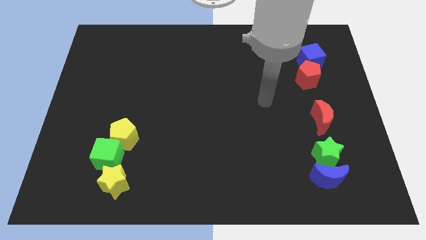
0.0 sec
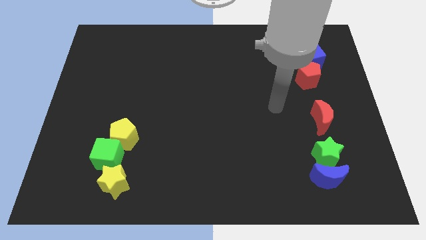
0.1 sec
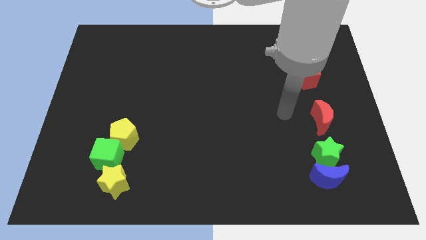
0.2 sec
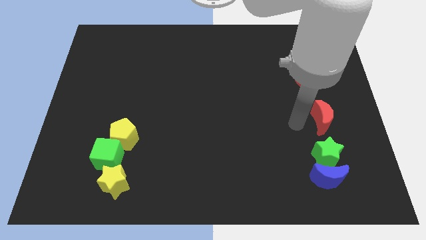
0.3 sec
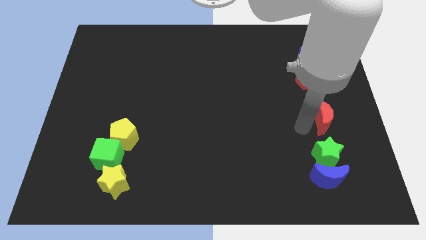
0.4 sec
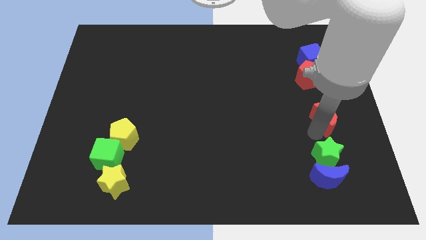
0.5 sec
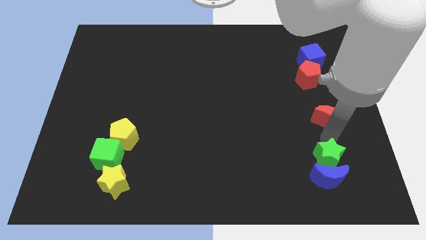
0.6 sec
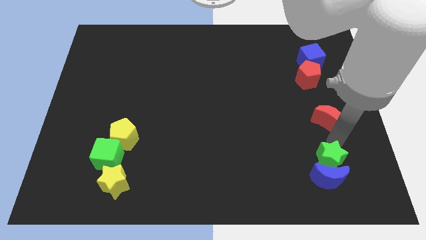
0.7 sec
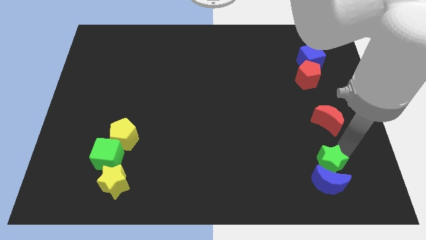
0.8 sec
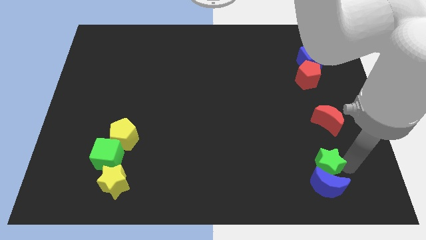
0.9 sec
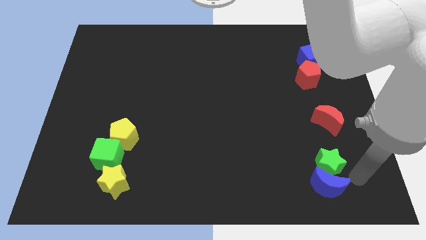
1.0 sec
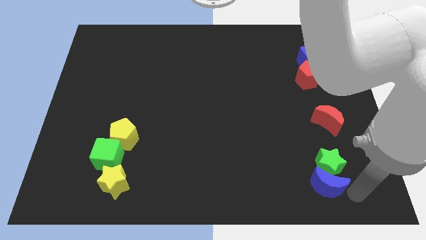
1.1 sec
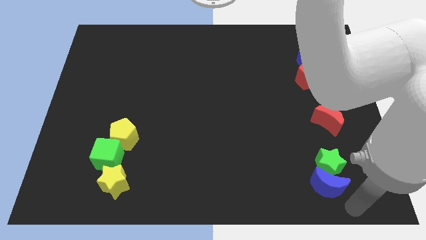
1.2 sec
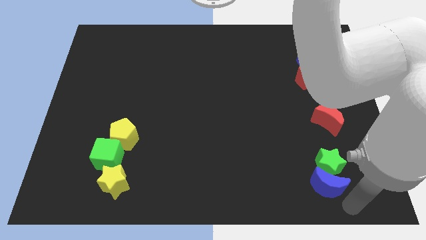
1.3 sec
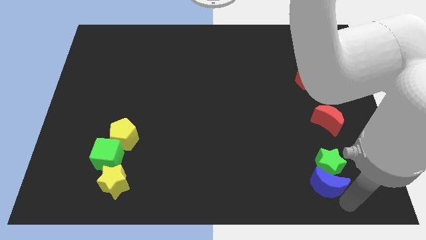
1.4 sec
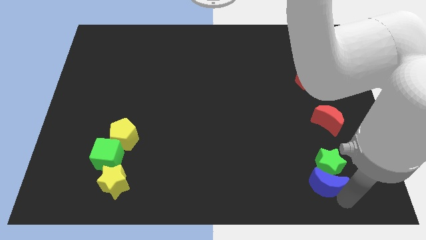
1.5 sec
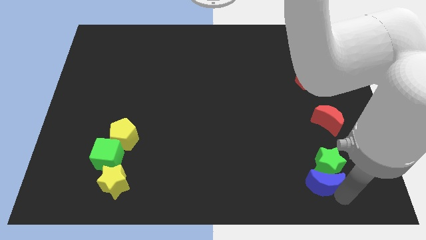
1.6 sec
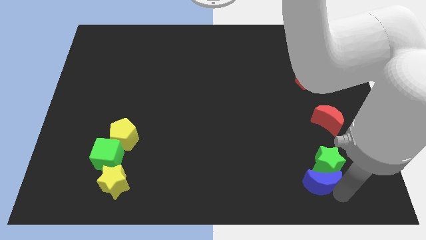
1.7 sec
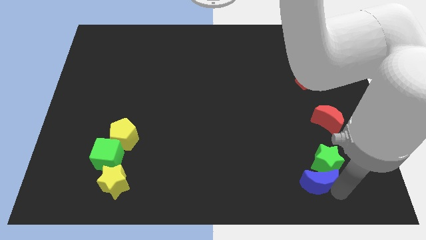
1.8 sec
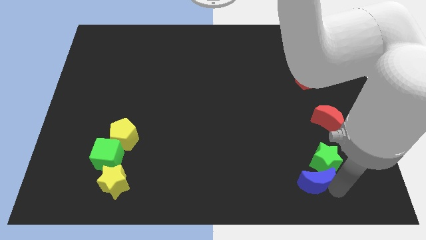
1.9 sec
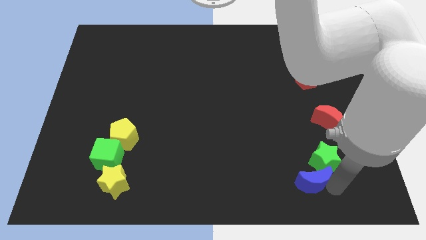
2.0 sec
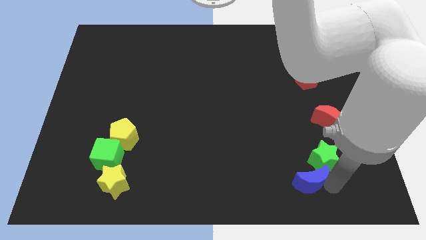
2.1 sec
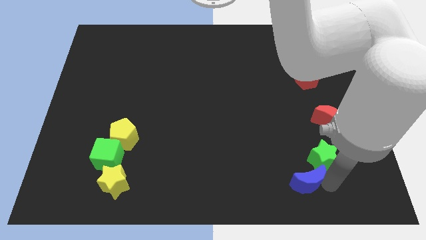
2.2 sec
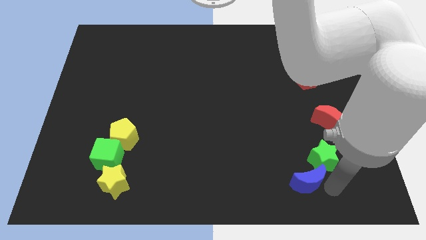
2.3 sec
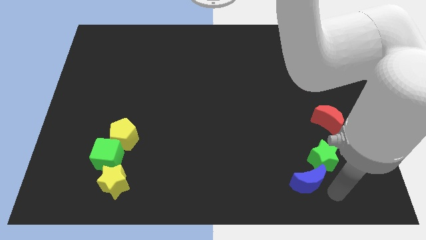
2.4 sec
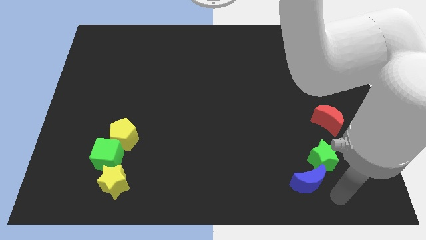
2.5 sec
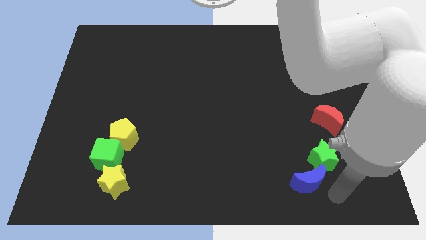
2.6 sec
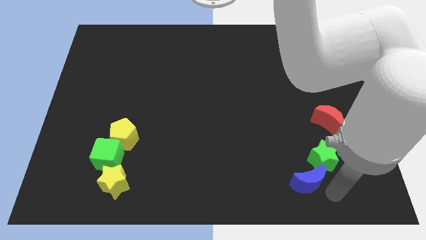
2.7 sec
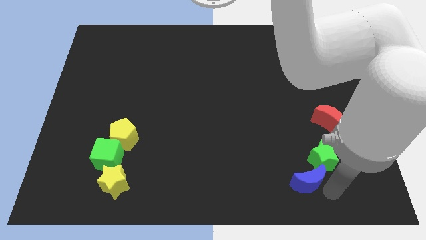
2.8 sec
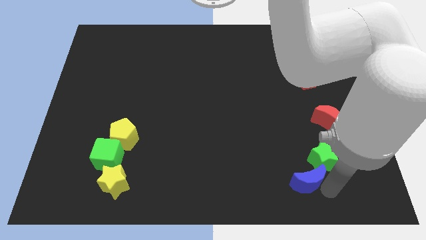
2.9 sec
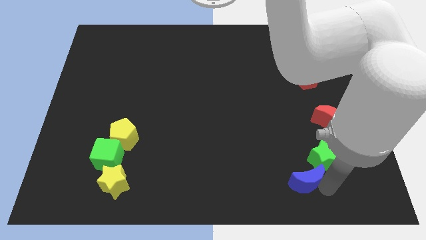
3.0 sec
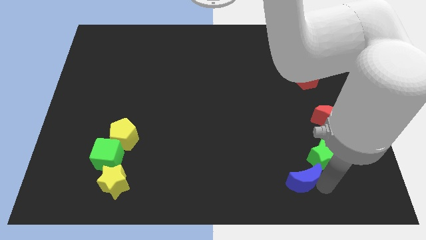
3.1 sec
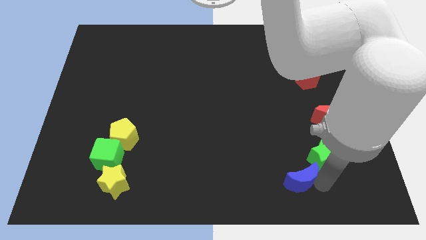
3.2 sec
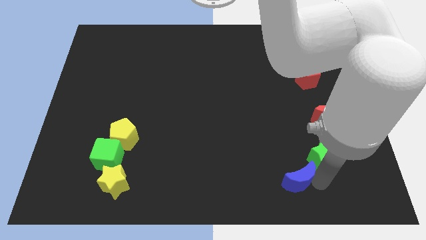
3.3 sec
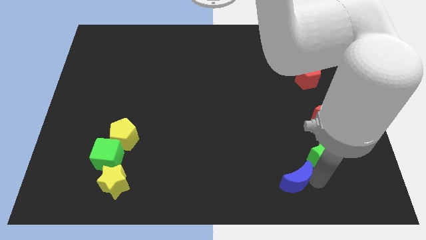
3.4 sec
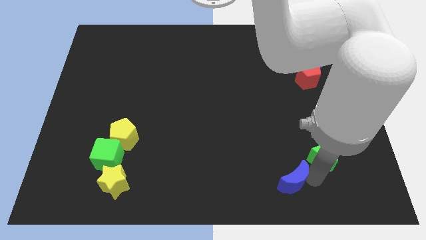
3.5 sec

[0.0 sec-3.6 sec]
slide the blue moon a bit left

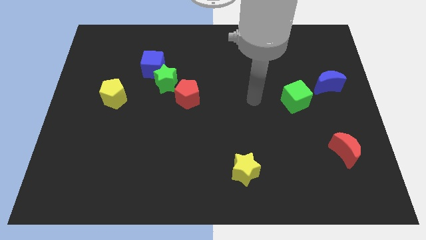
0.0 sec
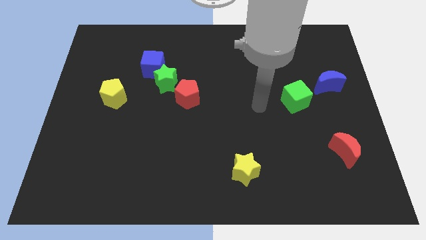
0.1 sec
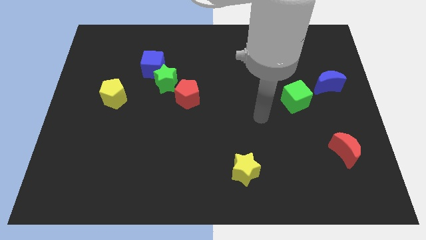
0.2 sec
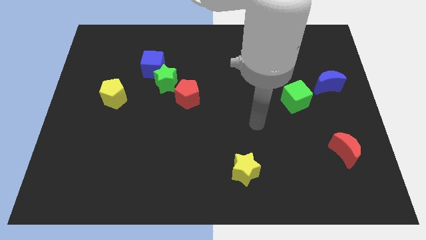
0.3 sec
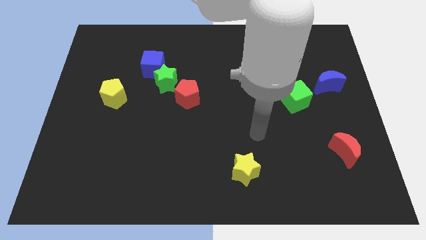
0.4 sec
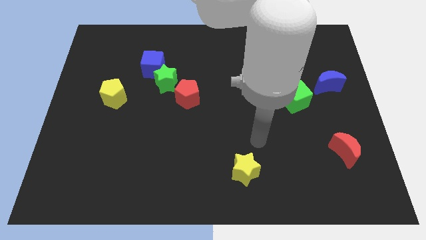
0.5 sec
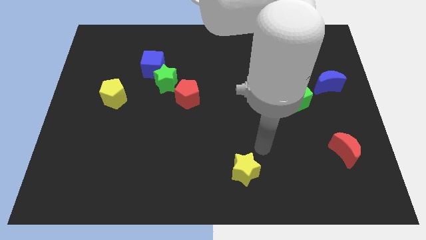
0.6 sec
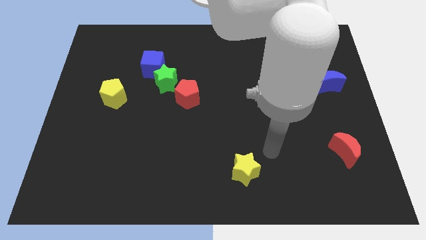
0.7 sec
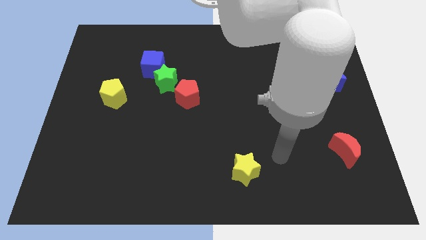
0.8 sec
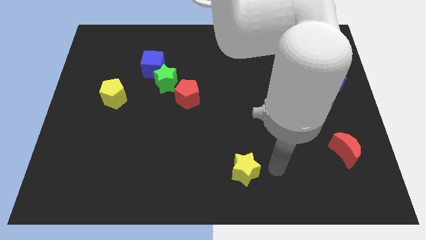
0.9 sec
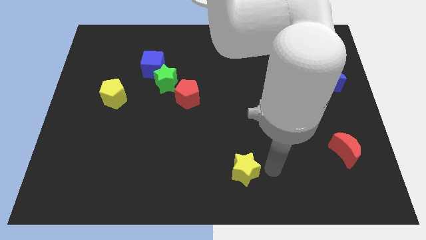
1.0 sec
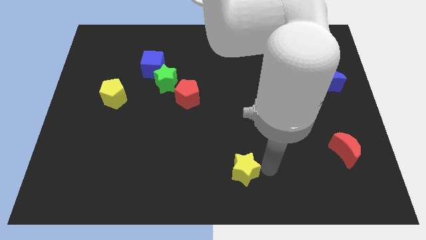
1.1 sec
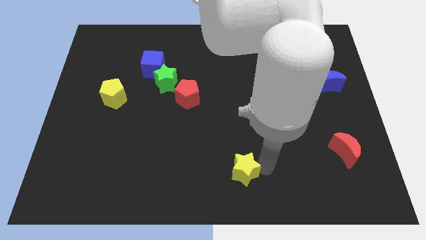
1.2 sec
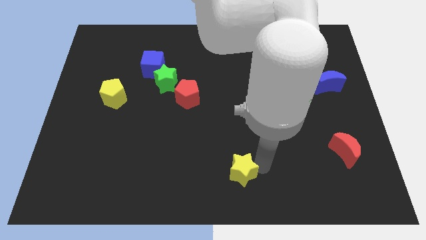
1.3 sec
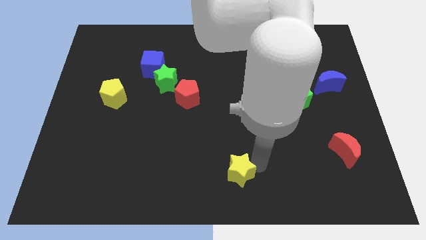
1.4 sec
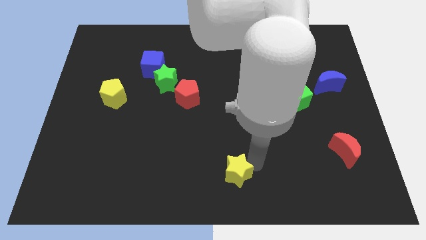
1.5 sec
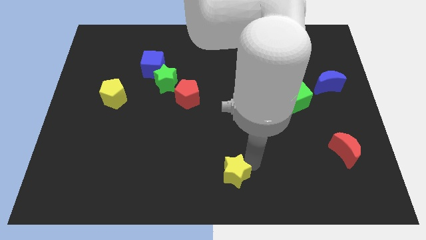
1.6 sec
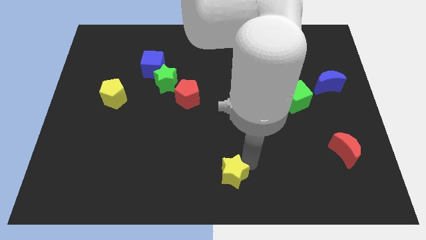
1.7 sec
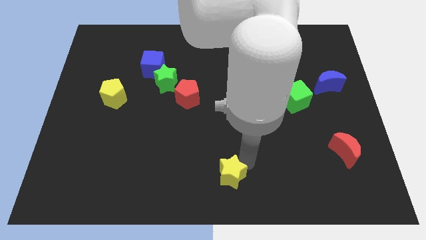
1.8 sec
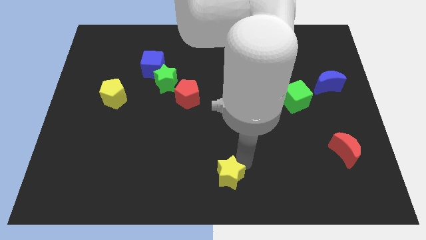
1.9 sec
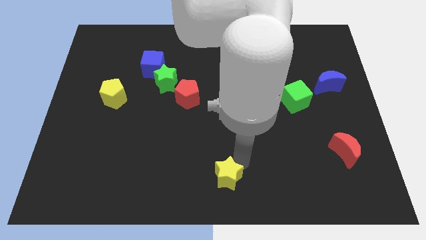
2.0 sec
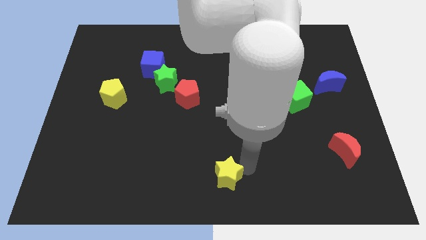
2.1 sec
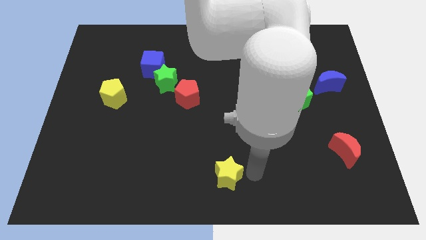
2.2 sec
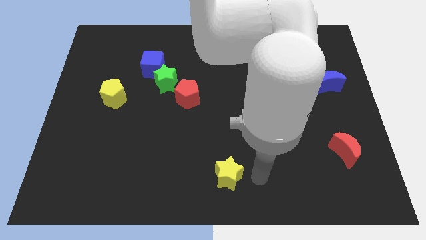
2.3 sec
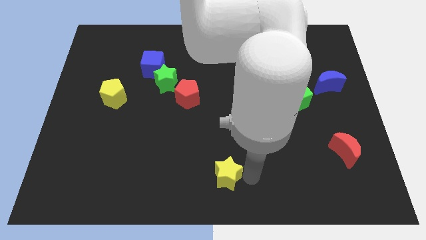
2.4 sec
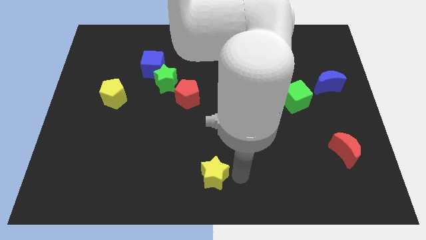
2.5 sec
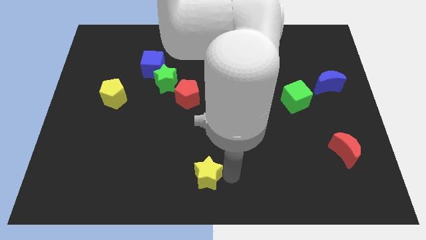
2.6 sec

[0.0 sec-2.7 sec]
push the yellow star a little bit to the left

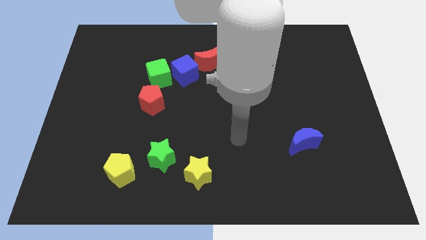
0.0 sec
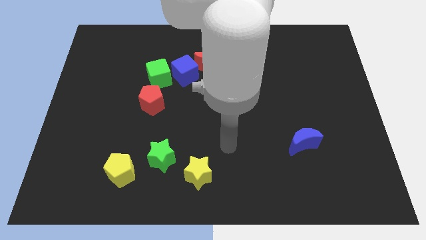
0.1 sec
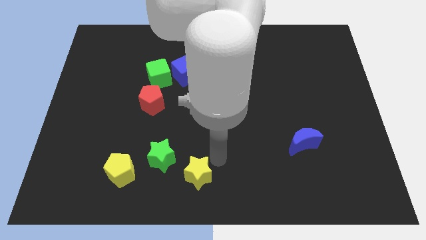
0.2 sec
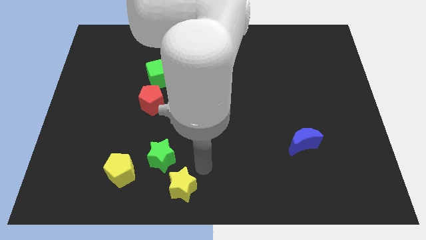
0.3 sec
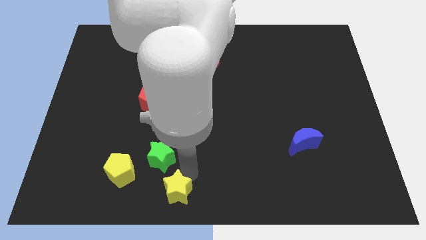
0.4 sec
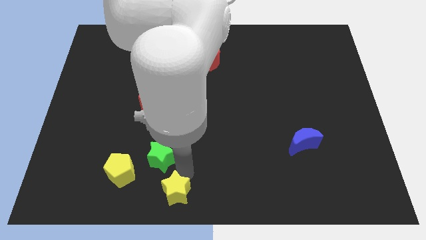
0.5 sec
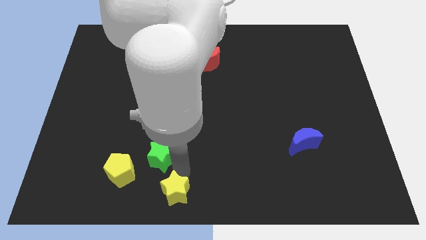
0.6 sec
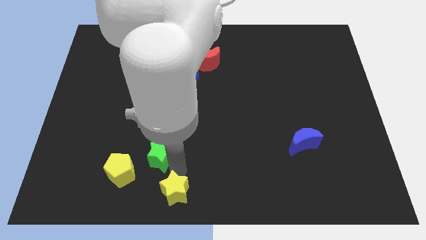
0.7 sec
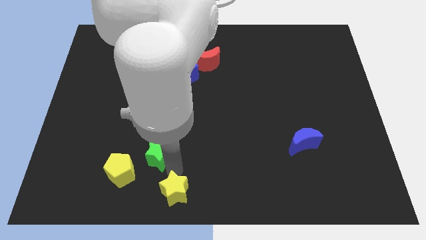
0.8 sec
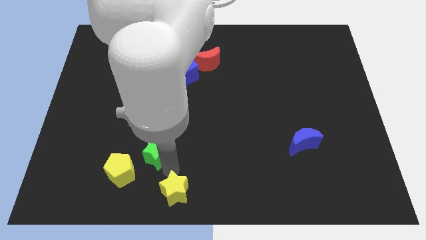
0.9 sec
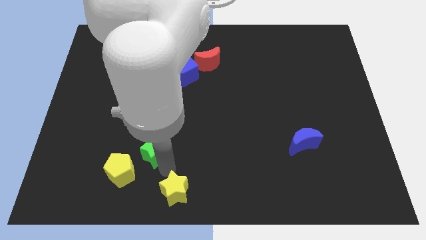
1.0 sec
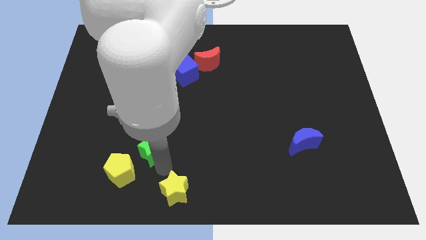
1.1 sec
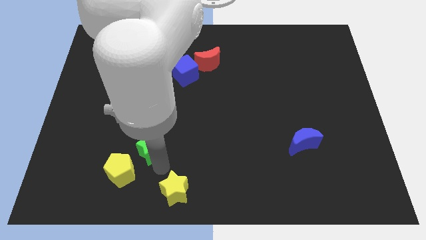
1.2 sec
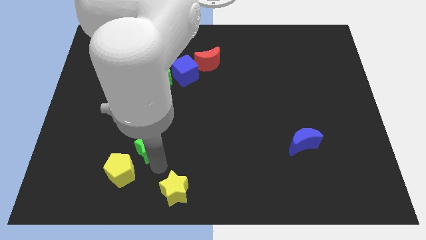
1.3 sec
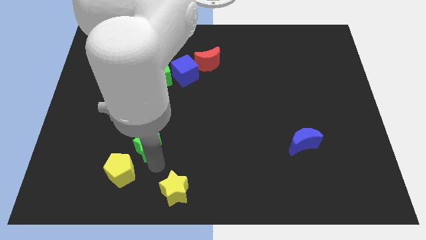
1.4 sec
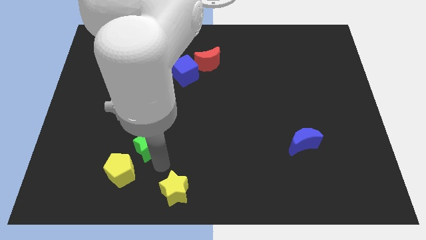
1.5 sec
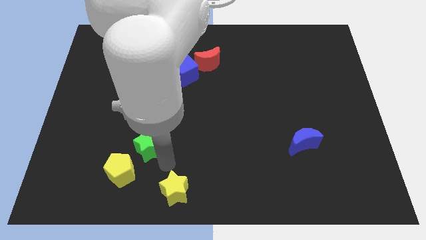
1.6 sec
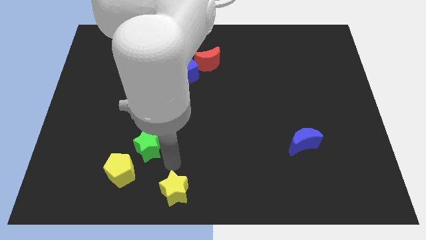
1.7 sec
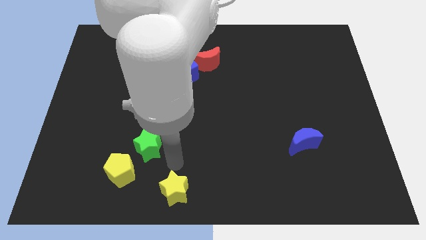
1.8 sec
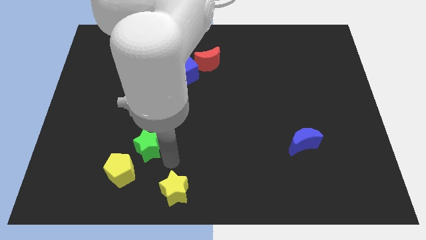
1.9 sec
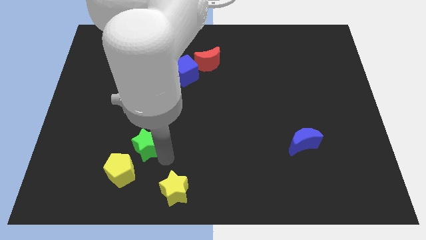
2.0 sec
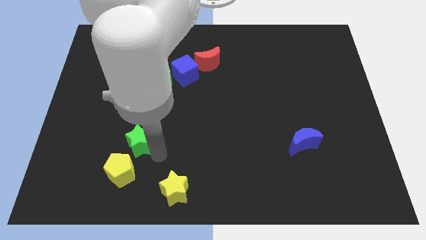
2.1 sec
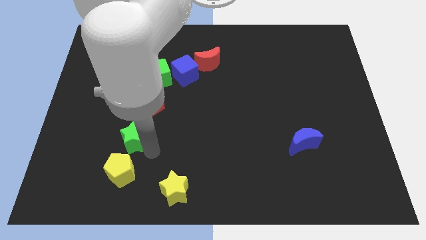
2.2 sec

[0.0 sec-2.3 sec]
slightly move the green star up and to the left diagonally
